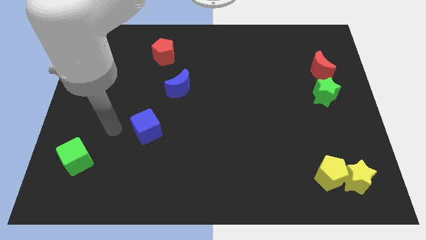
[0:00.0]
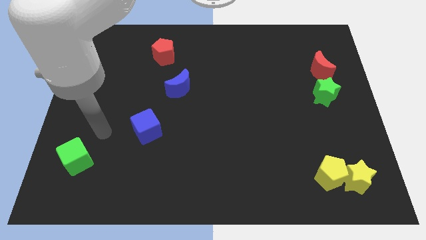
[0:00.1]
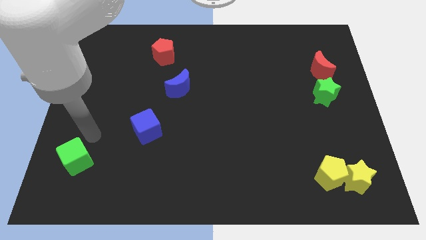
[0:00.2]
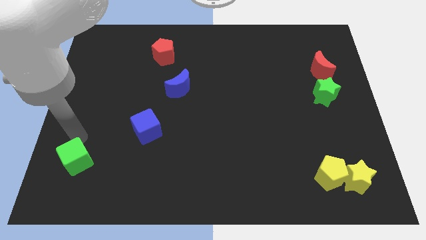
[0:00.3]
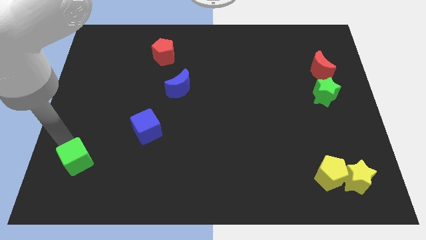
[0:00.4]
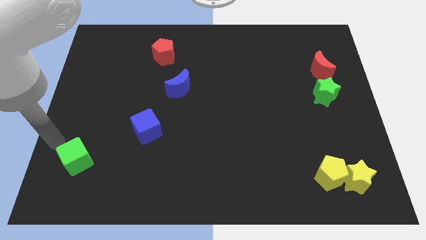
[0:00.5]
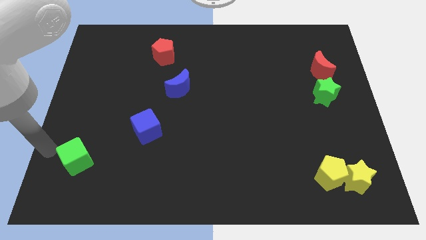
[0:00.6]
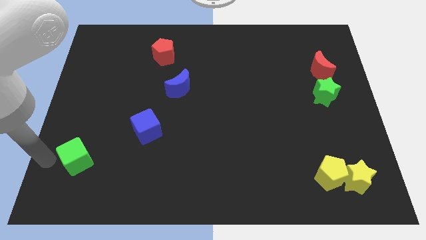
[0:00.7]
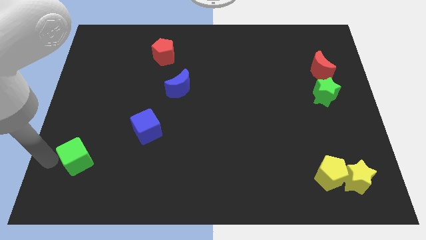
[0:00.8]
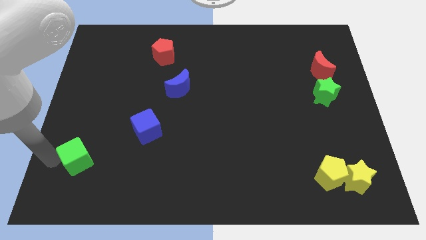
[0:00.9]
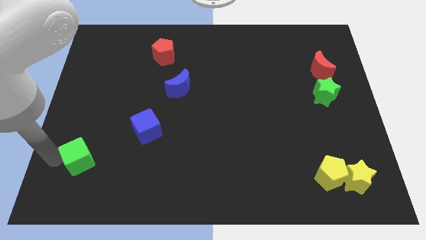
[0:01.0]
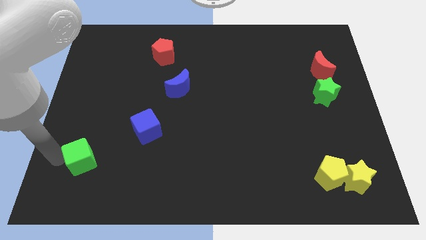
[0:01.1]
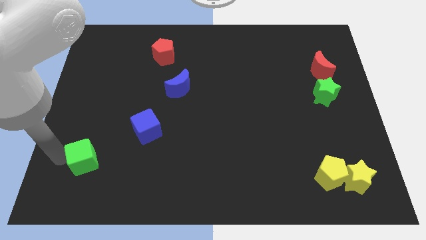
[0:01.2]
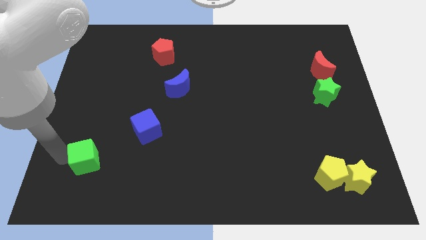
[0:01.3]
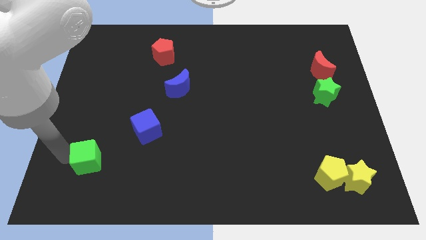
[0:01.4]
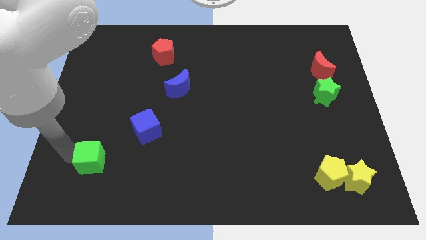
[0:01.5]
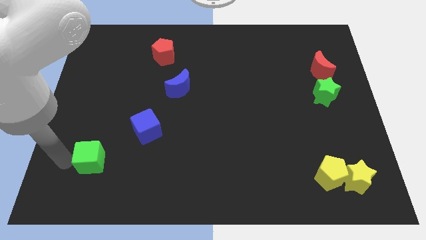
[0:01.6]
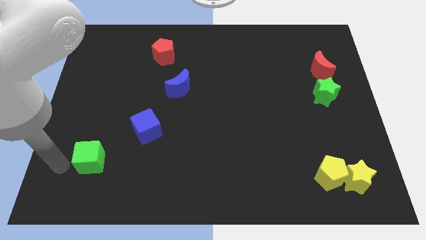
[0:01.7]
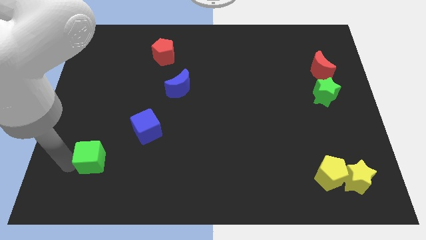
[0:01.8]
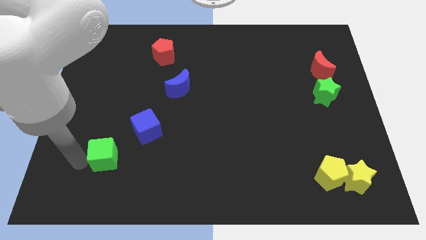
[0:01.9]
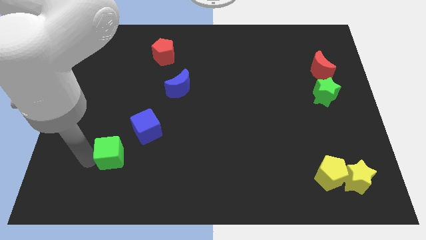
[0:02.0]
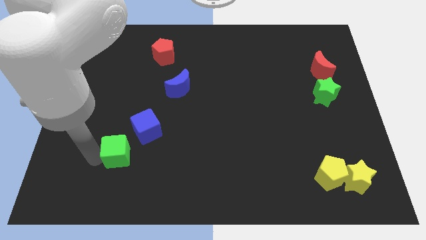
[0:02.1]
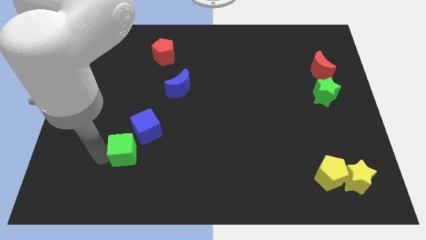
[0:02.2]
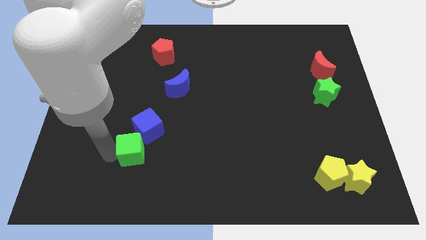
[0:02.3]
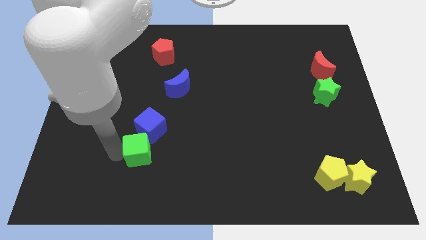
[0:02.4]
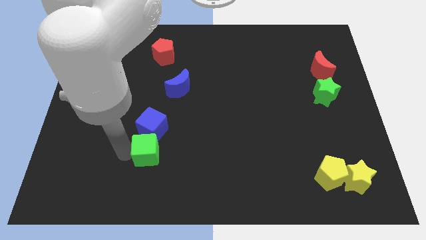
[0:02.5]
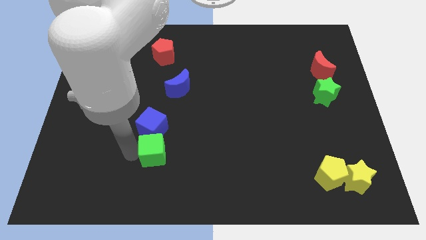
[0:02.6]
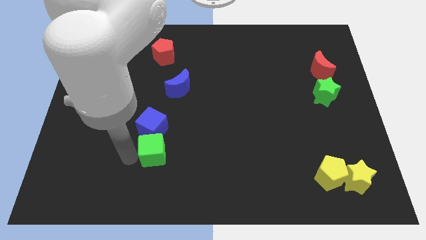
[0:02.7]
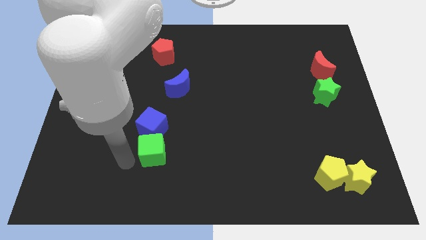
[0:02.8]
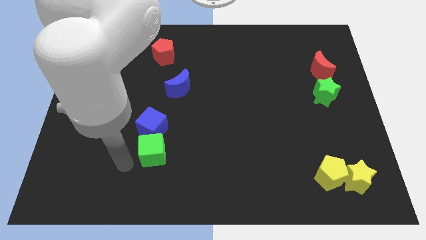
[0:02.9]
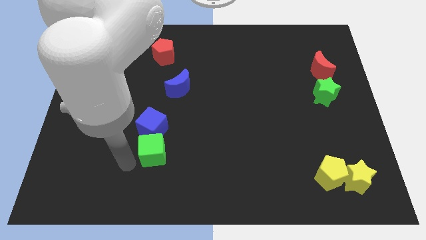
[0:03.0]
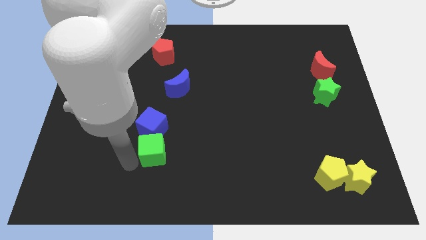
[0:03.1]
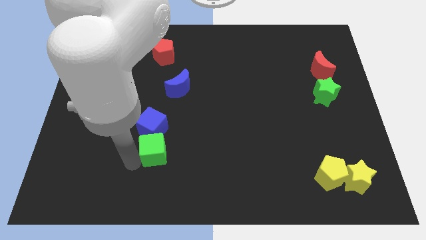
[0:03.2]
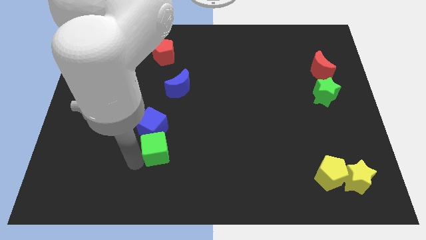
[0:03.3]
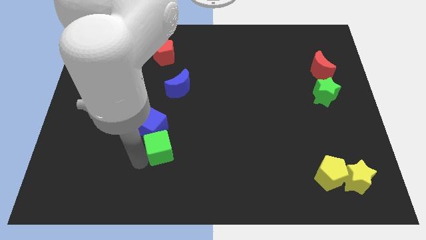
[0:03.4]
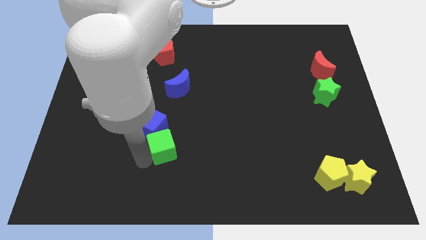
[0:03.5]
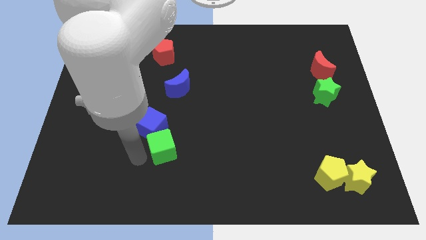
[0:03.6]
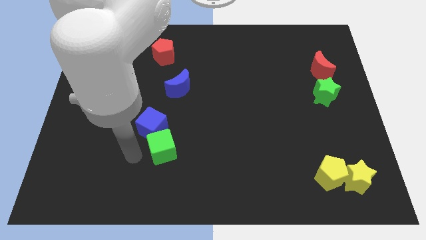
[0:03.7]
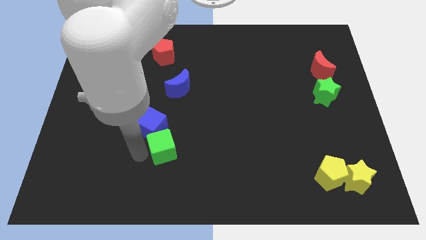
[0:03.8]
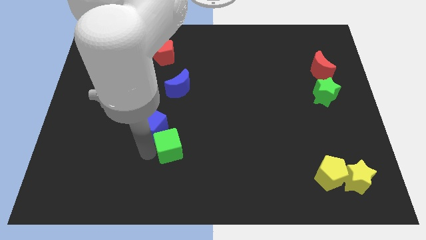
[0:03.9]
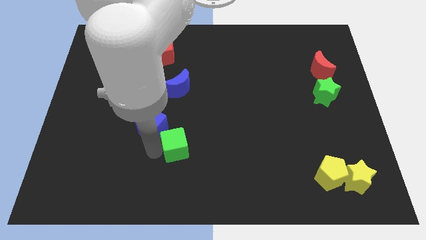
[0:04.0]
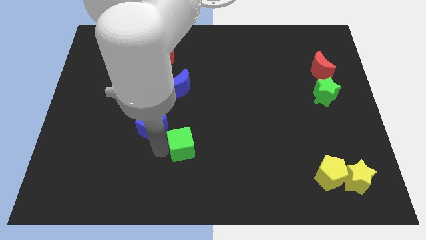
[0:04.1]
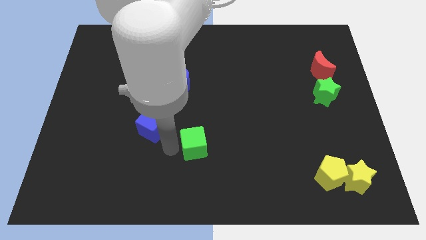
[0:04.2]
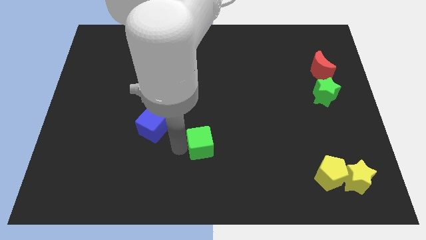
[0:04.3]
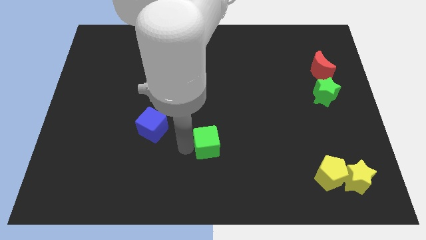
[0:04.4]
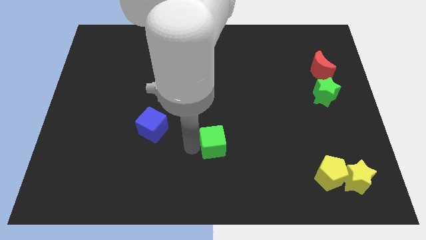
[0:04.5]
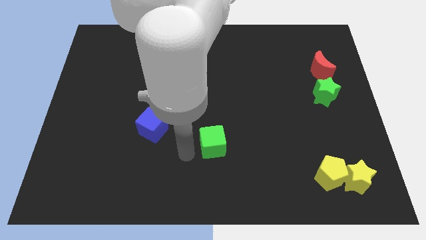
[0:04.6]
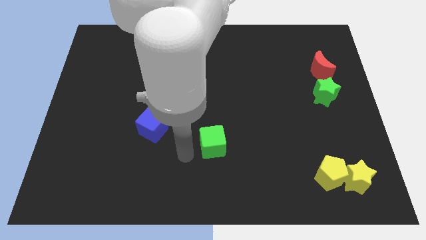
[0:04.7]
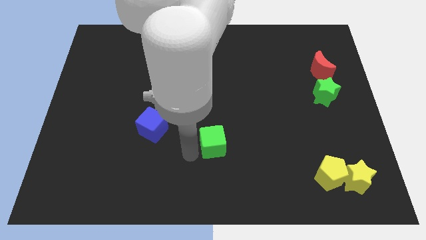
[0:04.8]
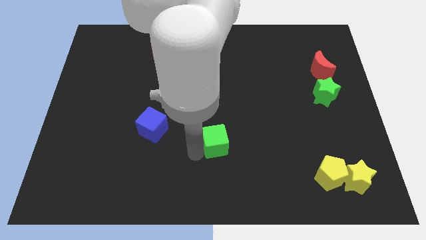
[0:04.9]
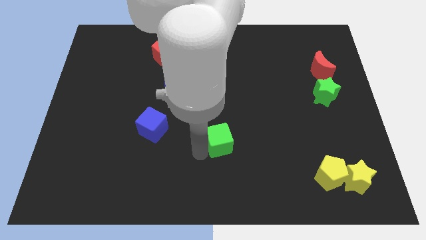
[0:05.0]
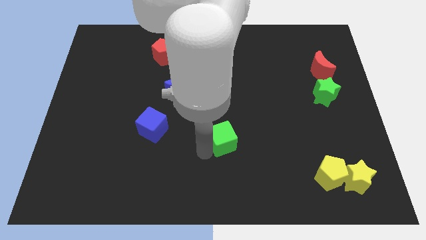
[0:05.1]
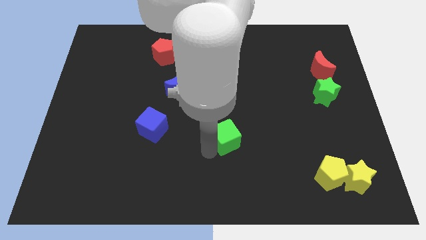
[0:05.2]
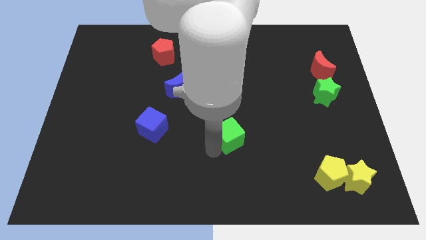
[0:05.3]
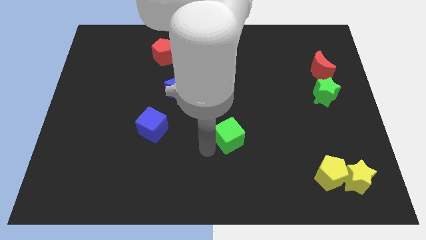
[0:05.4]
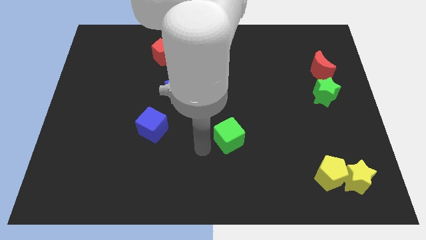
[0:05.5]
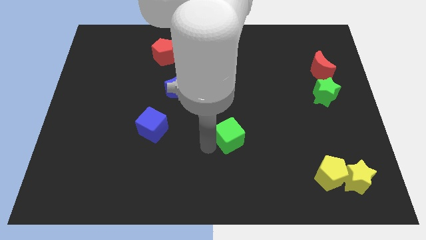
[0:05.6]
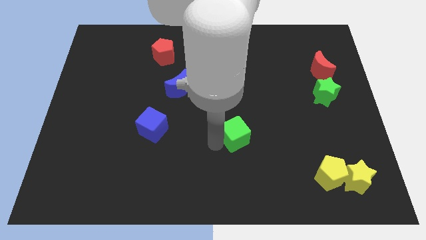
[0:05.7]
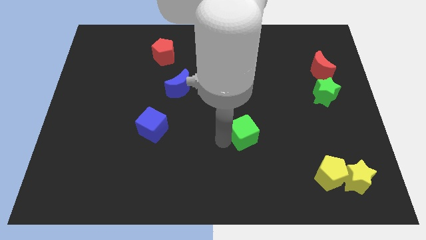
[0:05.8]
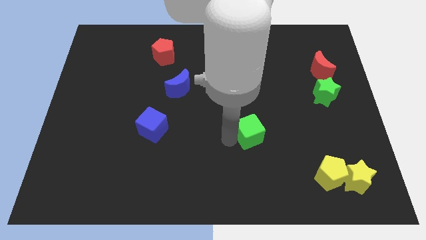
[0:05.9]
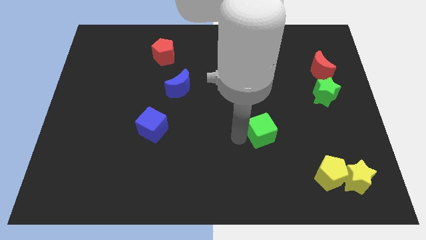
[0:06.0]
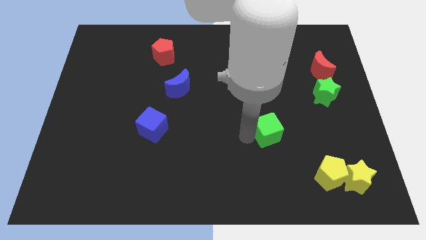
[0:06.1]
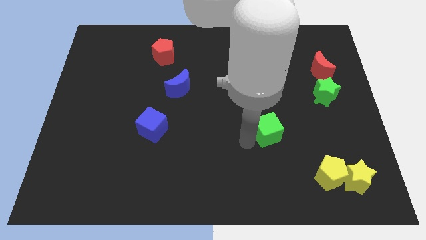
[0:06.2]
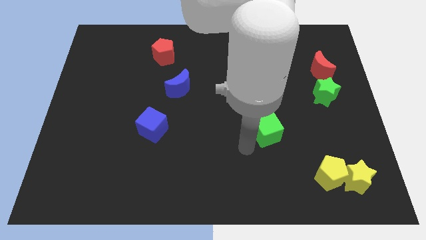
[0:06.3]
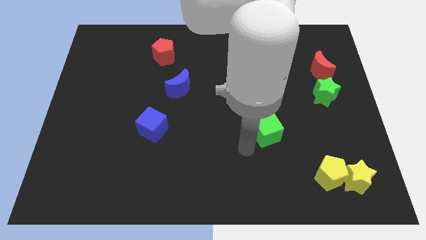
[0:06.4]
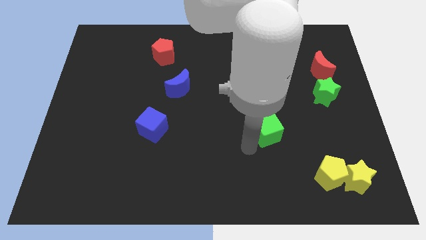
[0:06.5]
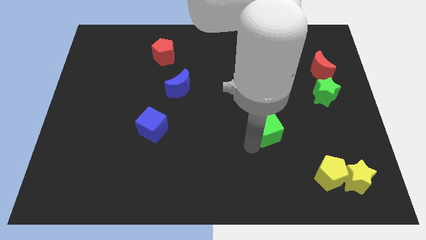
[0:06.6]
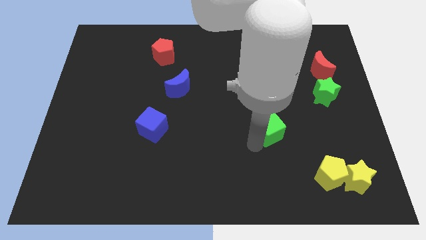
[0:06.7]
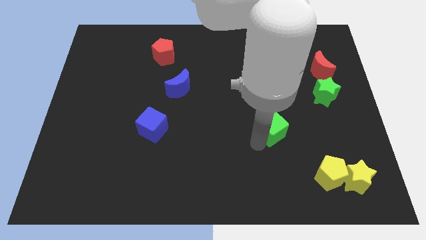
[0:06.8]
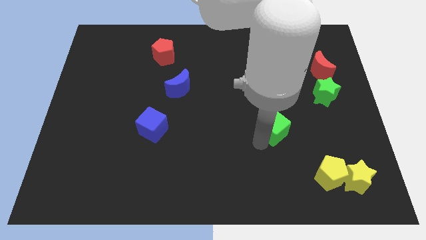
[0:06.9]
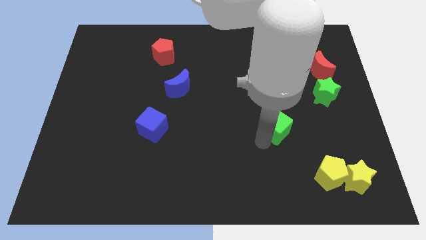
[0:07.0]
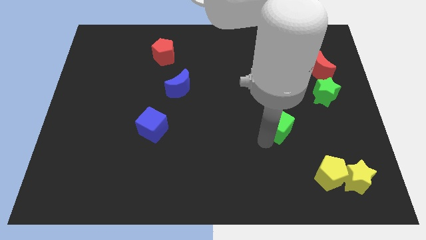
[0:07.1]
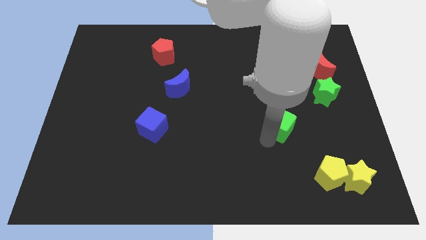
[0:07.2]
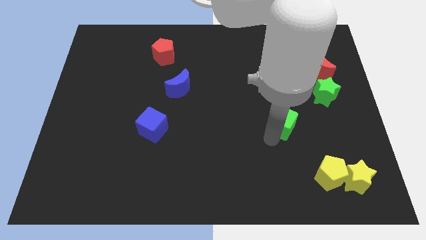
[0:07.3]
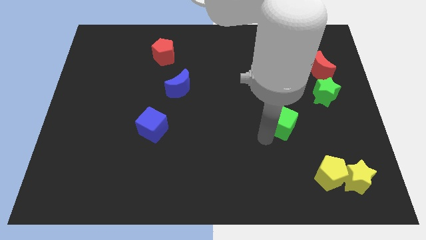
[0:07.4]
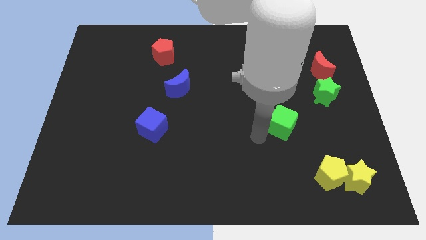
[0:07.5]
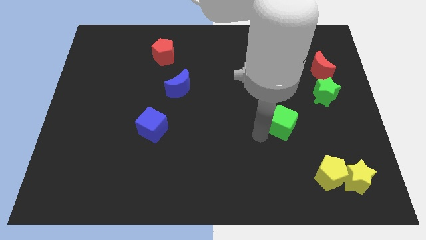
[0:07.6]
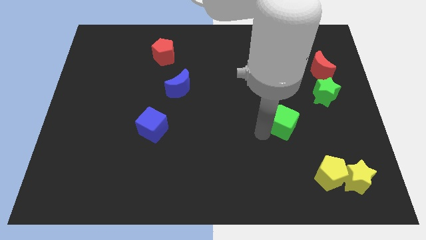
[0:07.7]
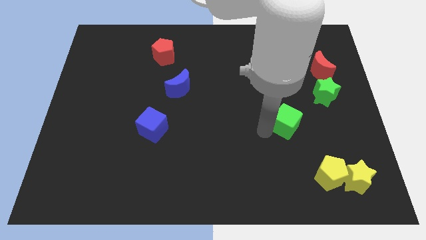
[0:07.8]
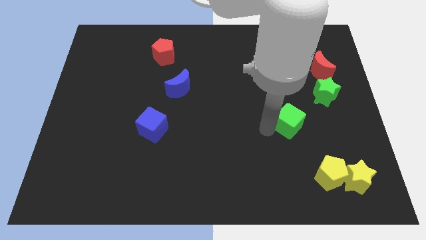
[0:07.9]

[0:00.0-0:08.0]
push the green cube to the bottom left of the green star
